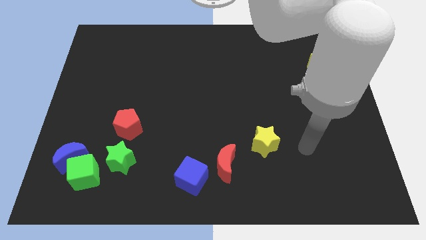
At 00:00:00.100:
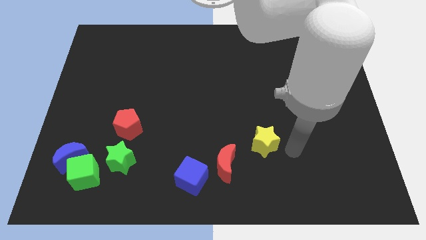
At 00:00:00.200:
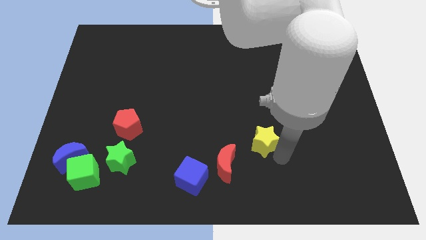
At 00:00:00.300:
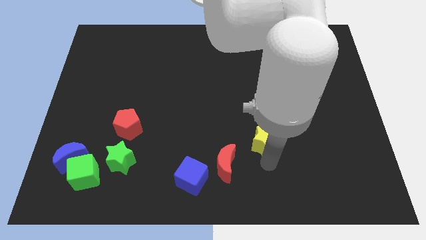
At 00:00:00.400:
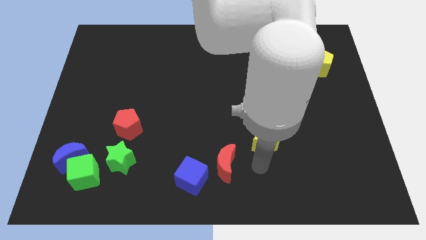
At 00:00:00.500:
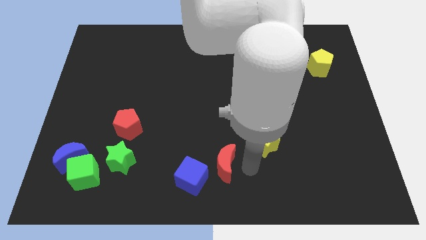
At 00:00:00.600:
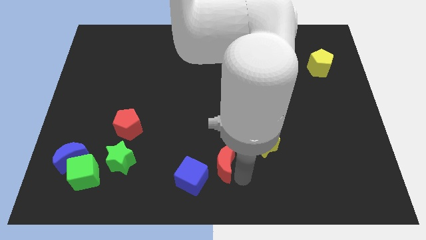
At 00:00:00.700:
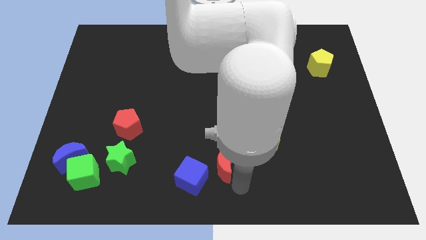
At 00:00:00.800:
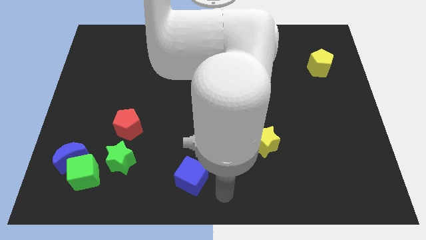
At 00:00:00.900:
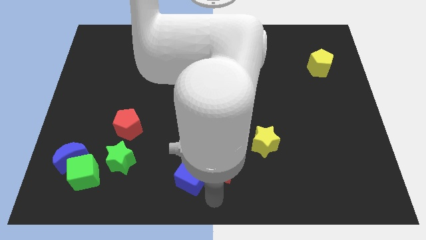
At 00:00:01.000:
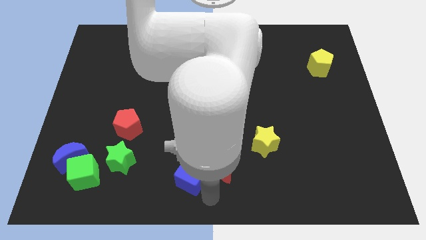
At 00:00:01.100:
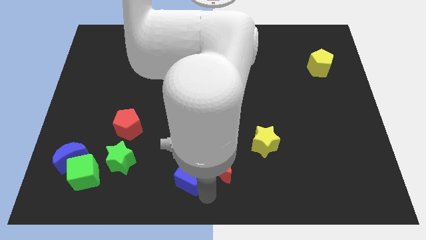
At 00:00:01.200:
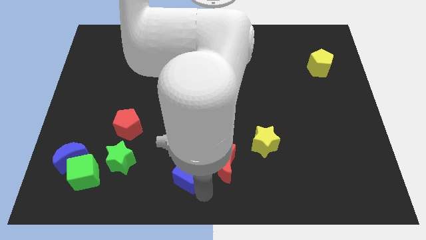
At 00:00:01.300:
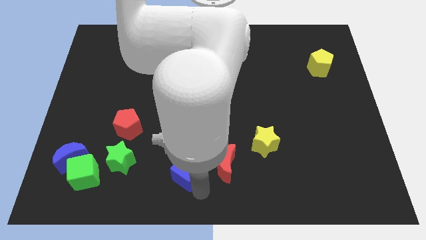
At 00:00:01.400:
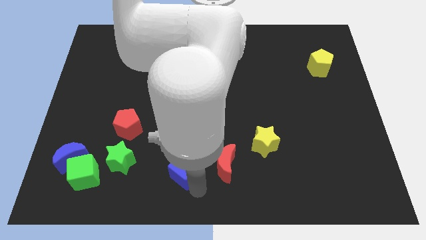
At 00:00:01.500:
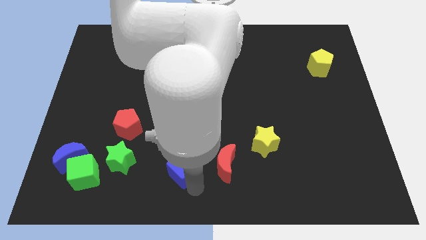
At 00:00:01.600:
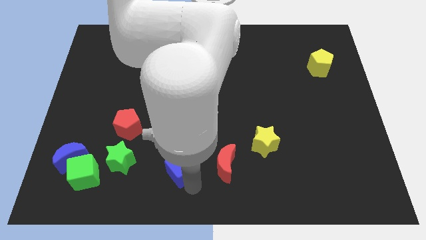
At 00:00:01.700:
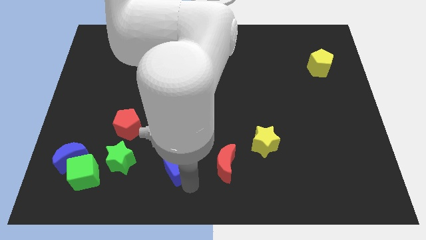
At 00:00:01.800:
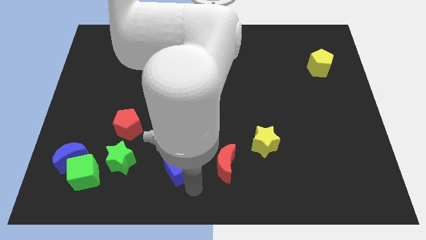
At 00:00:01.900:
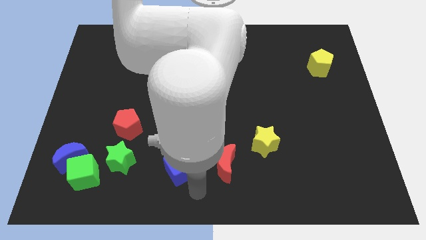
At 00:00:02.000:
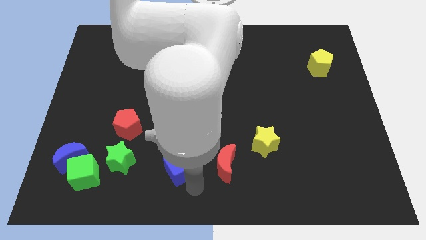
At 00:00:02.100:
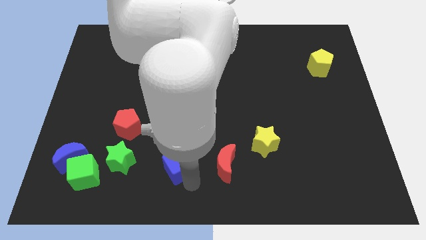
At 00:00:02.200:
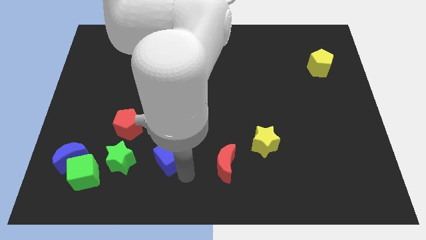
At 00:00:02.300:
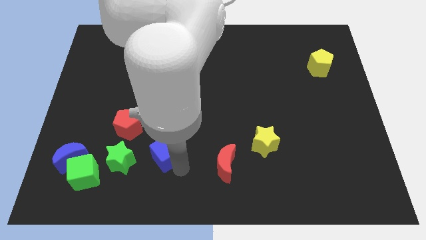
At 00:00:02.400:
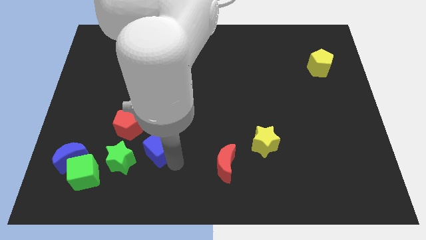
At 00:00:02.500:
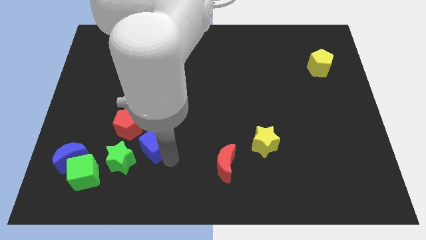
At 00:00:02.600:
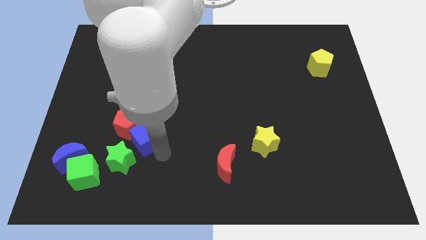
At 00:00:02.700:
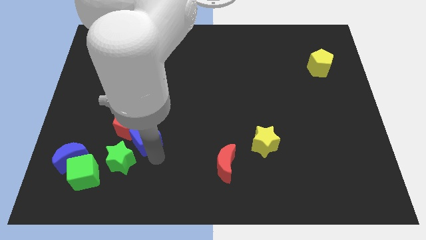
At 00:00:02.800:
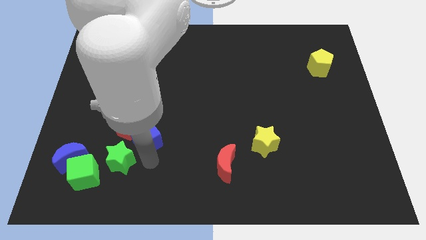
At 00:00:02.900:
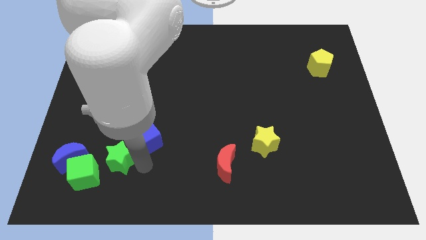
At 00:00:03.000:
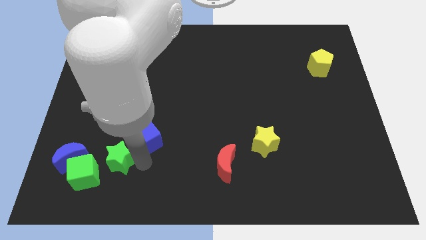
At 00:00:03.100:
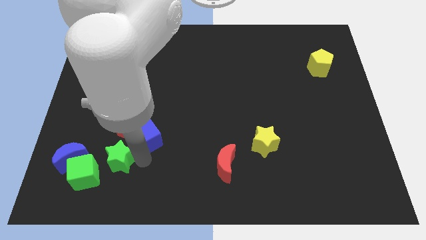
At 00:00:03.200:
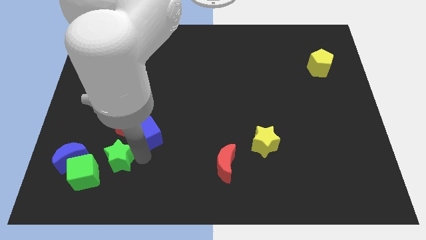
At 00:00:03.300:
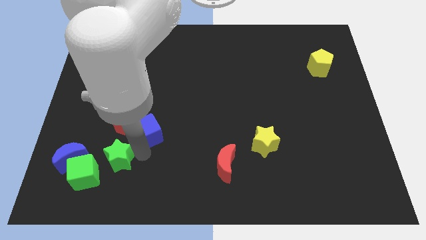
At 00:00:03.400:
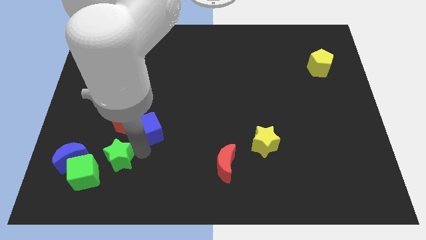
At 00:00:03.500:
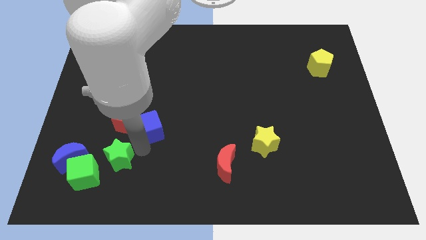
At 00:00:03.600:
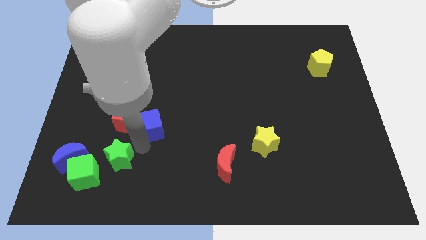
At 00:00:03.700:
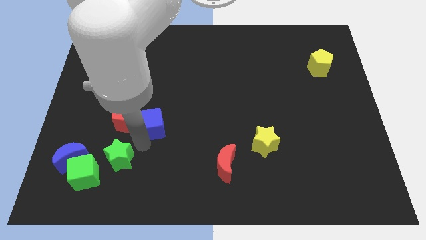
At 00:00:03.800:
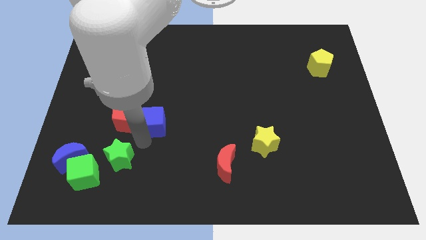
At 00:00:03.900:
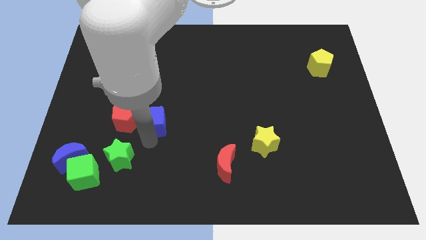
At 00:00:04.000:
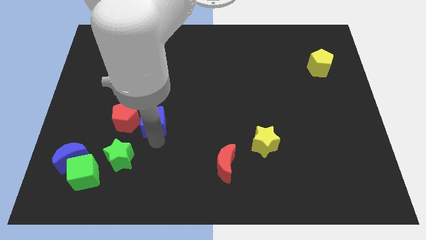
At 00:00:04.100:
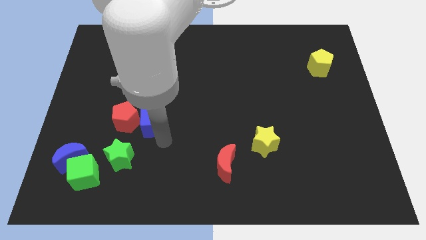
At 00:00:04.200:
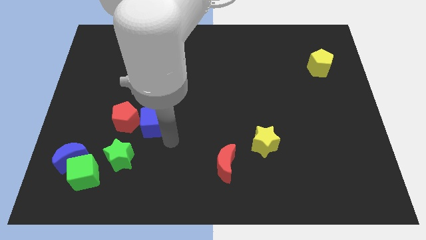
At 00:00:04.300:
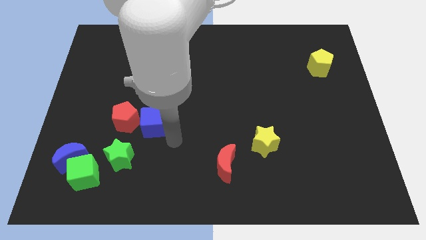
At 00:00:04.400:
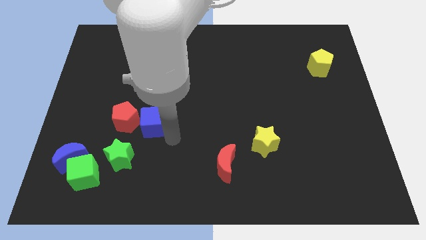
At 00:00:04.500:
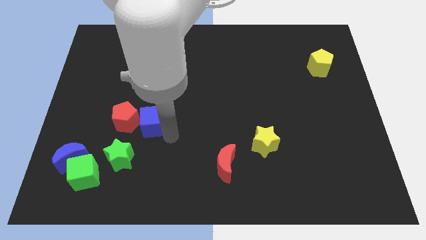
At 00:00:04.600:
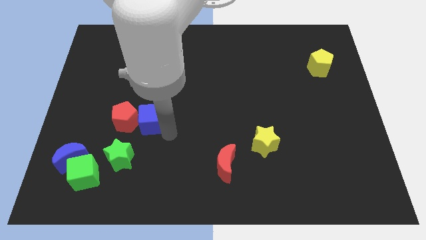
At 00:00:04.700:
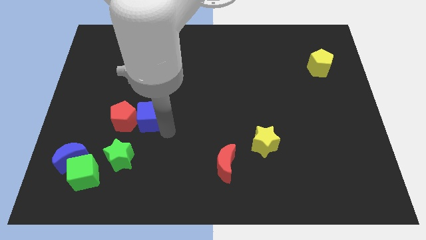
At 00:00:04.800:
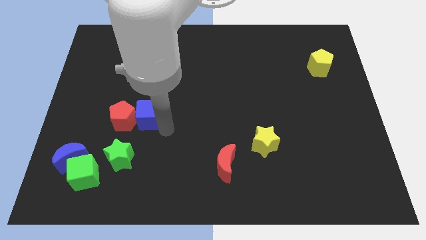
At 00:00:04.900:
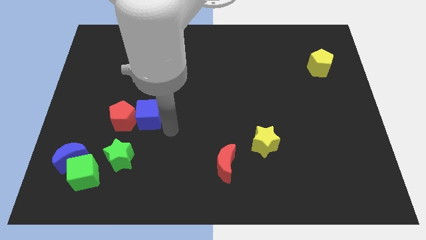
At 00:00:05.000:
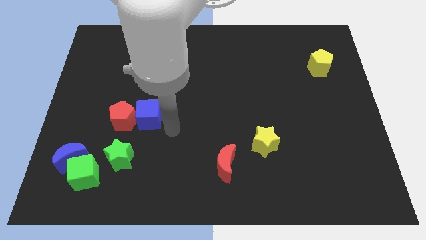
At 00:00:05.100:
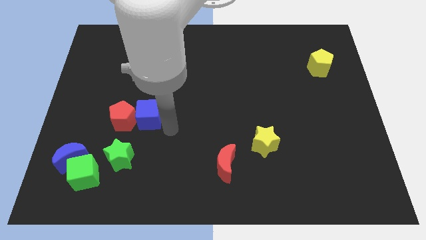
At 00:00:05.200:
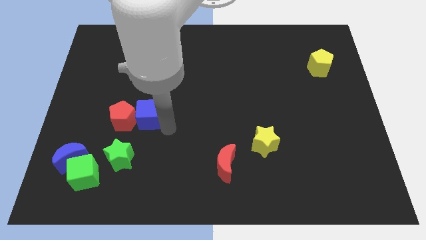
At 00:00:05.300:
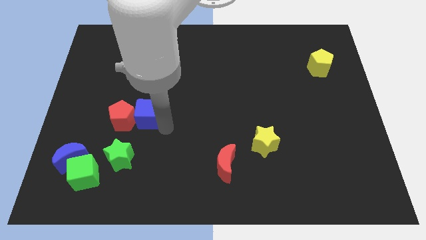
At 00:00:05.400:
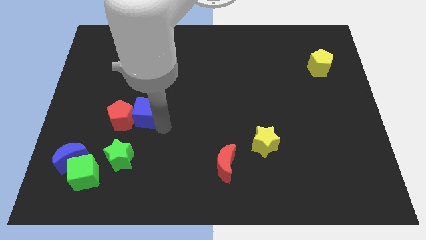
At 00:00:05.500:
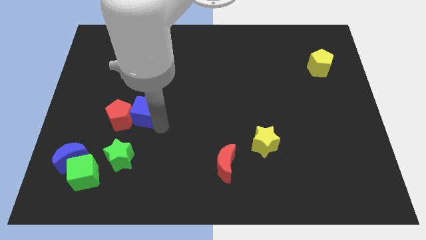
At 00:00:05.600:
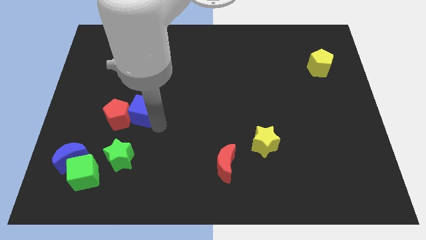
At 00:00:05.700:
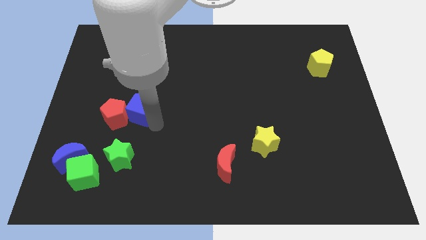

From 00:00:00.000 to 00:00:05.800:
move the blue cube up and left diagonally

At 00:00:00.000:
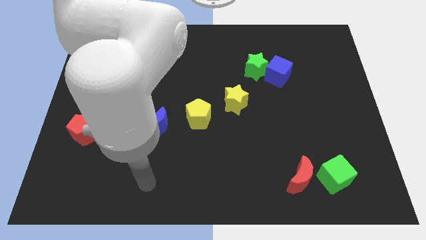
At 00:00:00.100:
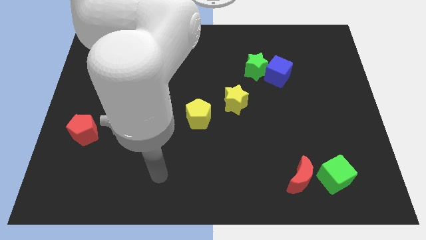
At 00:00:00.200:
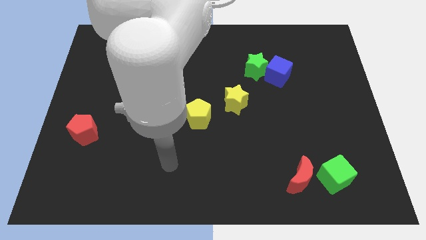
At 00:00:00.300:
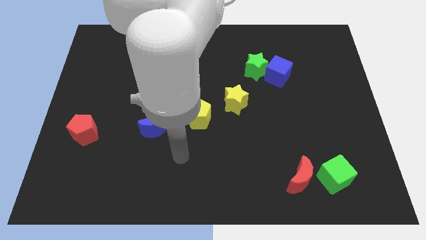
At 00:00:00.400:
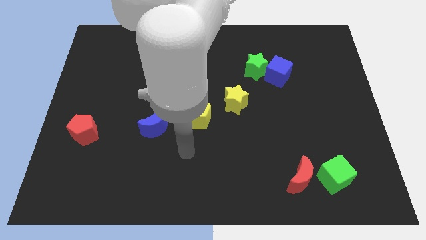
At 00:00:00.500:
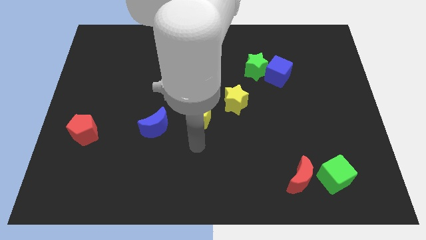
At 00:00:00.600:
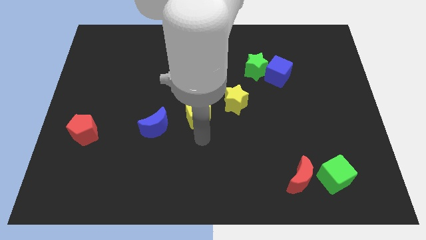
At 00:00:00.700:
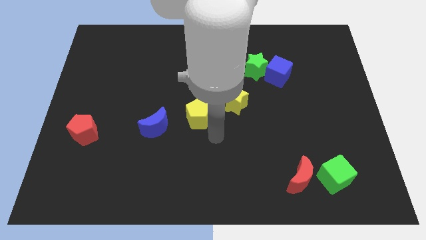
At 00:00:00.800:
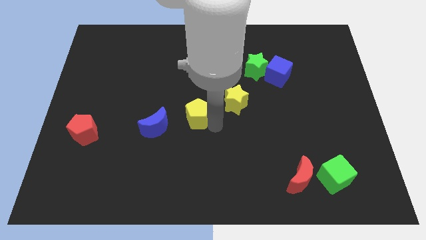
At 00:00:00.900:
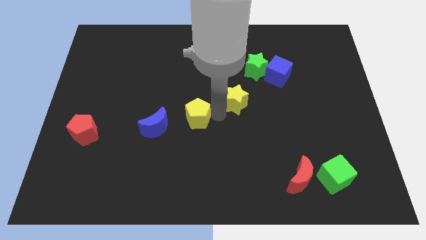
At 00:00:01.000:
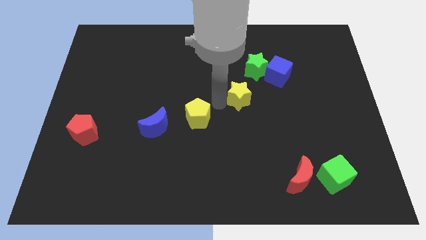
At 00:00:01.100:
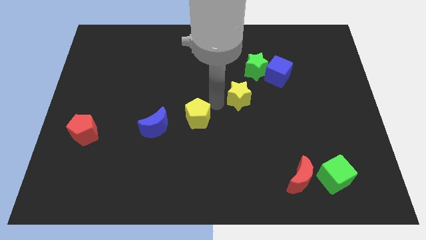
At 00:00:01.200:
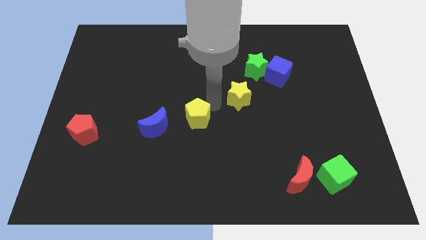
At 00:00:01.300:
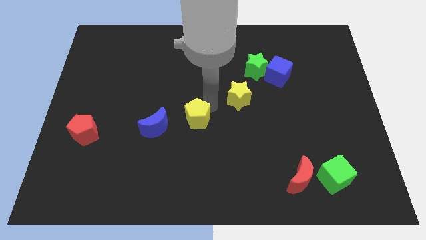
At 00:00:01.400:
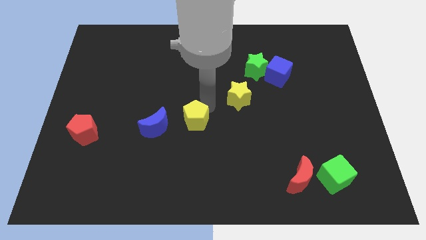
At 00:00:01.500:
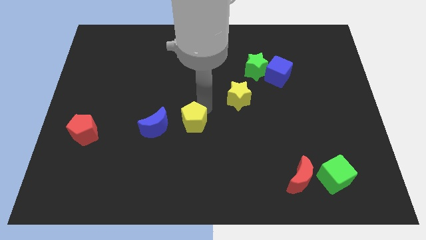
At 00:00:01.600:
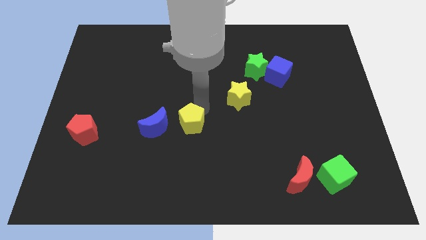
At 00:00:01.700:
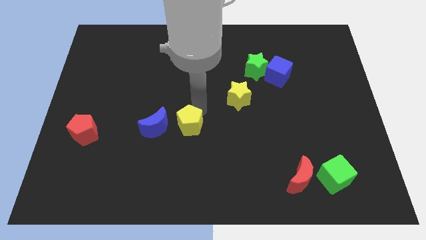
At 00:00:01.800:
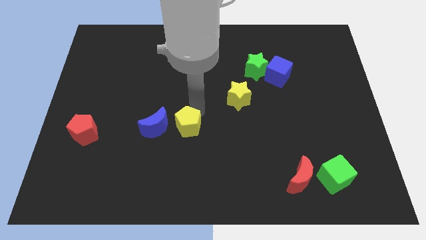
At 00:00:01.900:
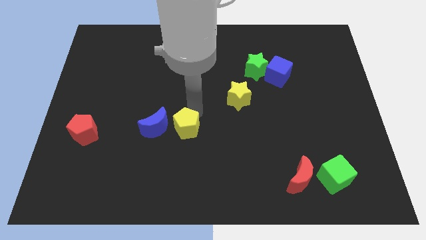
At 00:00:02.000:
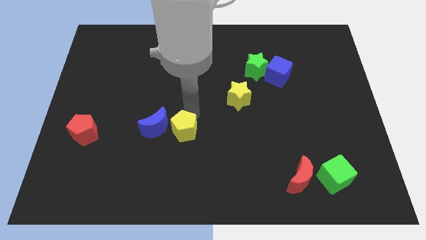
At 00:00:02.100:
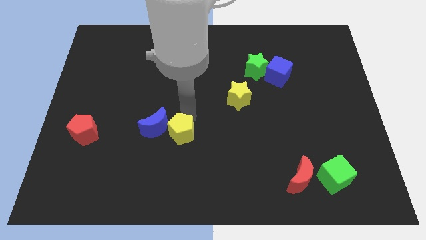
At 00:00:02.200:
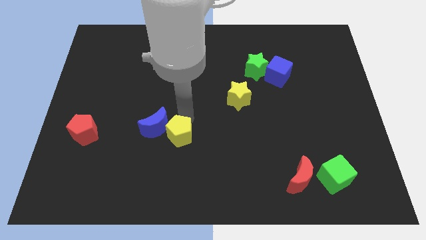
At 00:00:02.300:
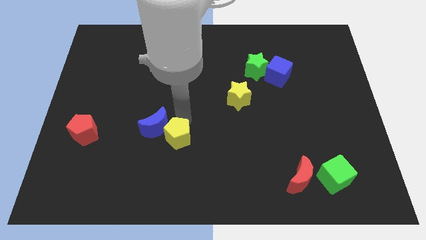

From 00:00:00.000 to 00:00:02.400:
slide the yellow pentagon diagonally downwards and left slightly
